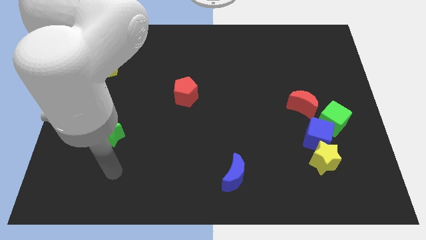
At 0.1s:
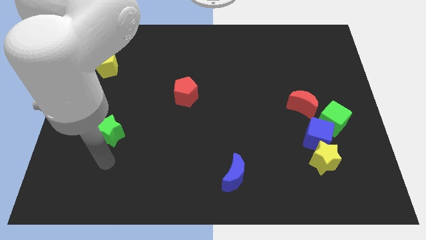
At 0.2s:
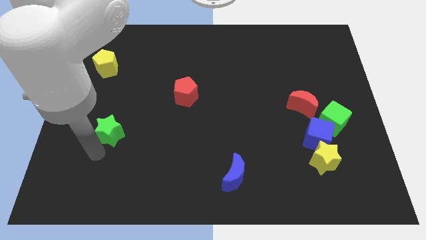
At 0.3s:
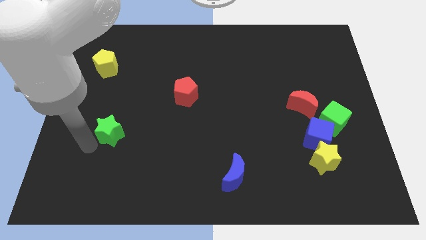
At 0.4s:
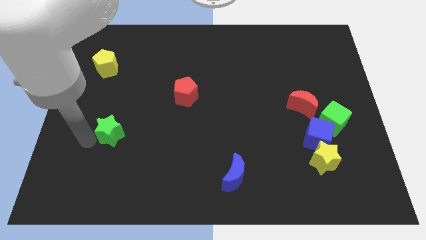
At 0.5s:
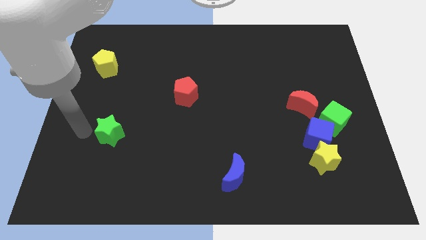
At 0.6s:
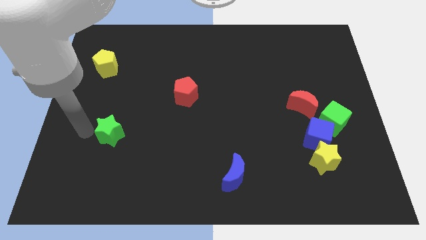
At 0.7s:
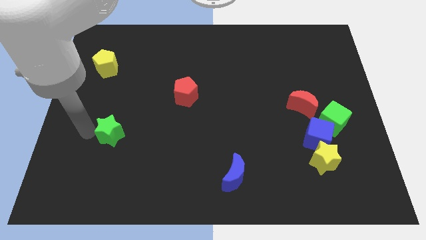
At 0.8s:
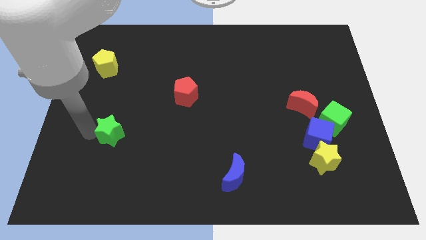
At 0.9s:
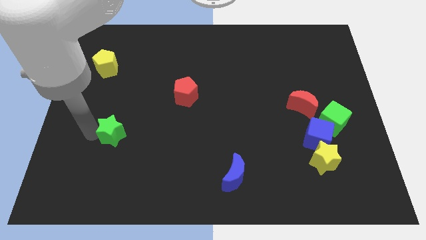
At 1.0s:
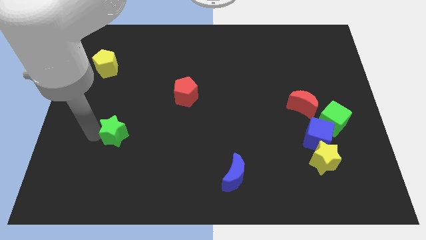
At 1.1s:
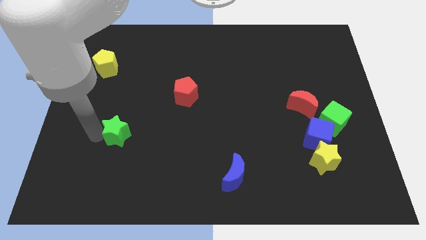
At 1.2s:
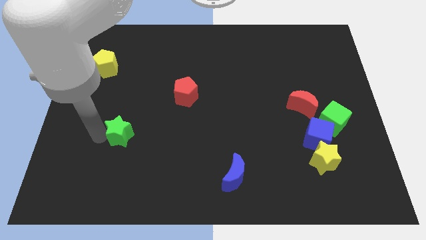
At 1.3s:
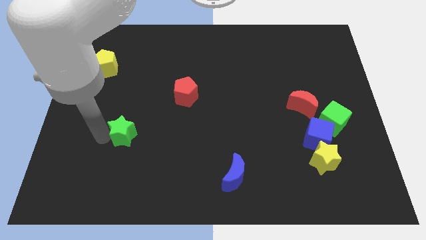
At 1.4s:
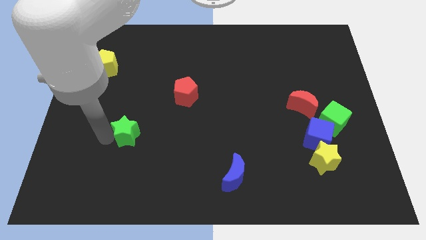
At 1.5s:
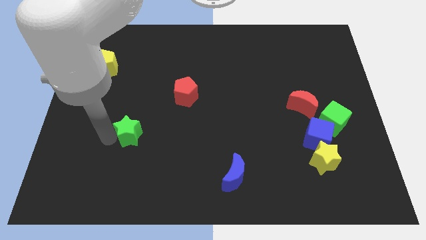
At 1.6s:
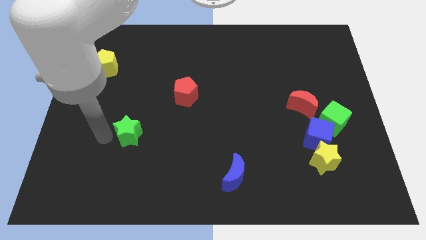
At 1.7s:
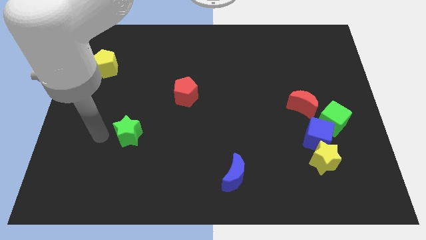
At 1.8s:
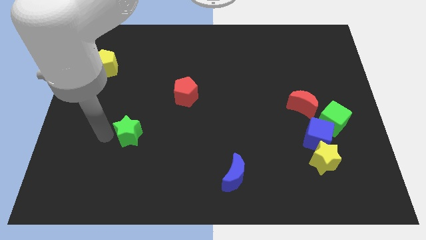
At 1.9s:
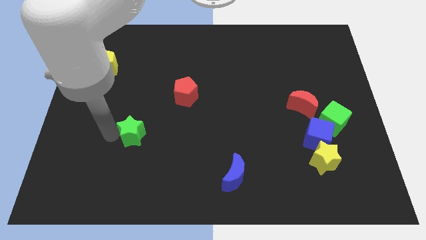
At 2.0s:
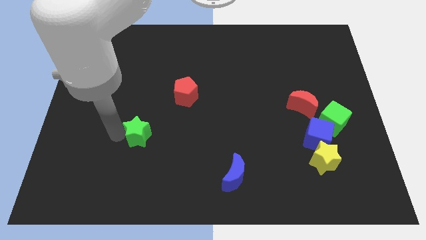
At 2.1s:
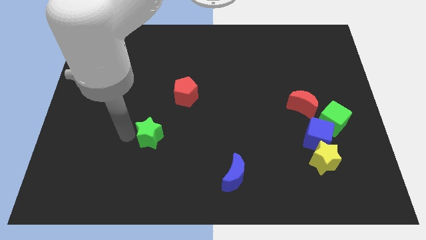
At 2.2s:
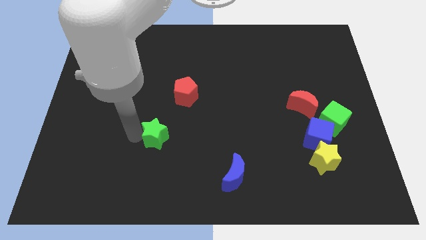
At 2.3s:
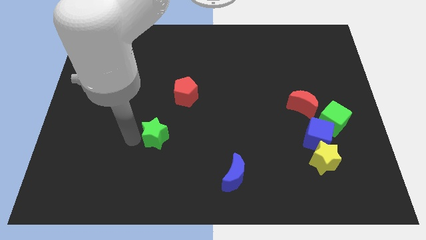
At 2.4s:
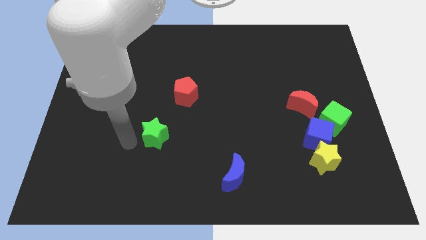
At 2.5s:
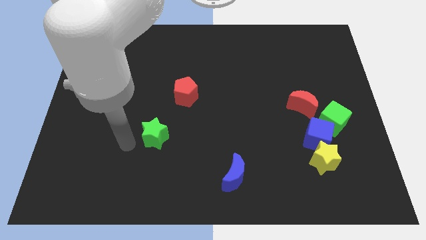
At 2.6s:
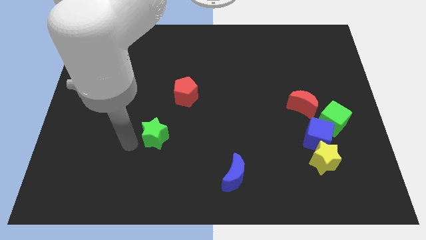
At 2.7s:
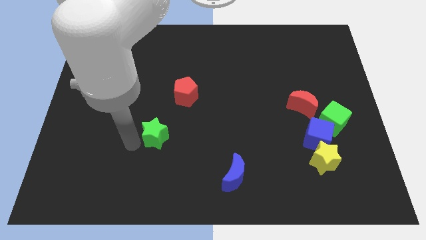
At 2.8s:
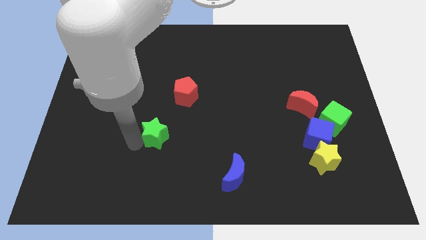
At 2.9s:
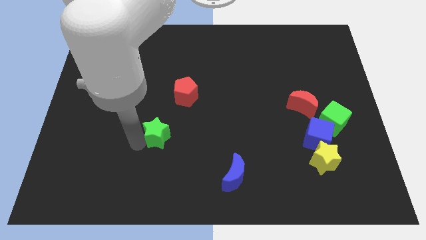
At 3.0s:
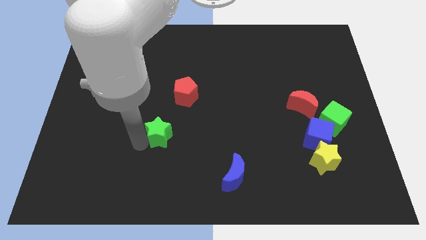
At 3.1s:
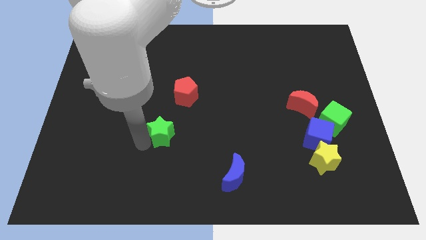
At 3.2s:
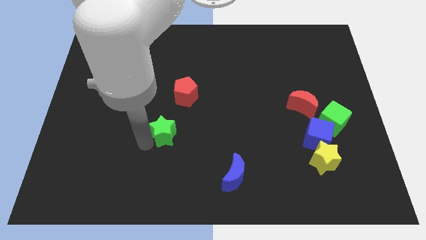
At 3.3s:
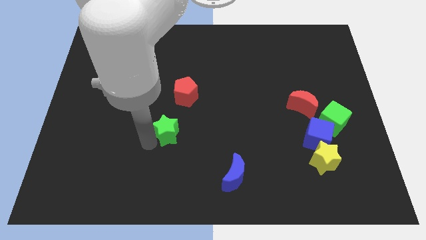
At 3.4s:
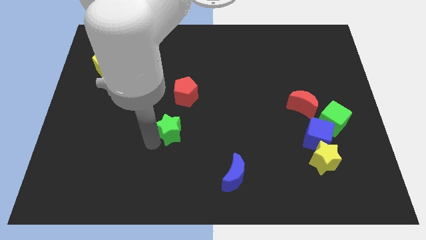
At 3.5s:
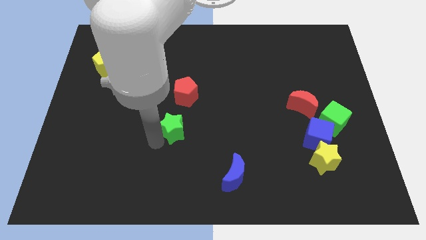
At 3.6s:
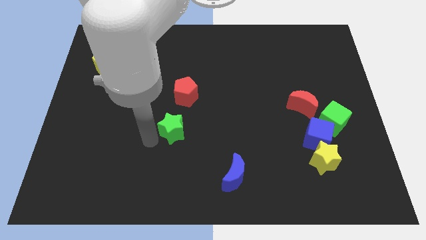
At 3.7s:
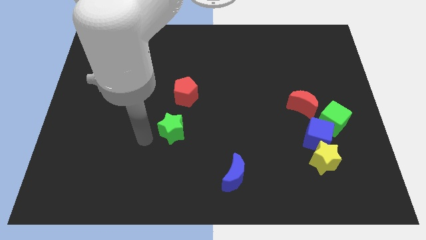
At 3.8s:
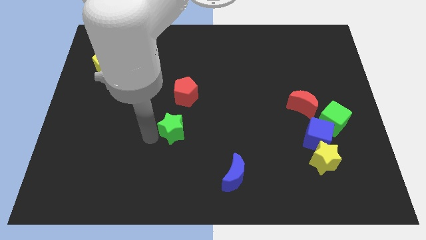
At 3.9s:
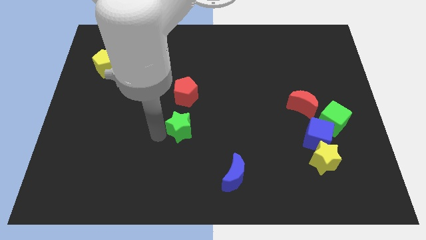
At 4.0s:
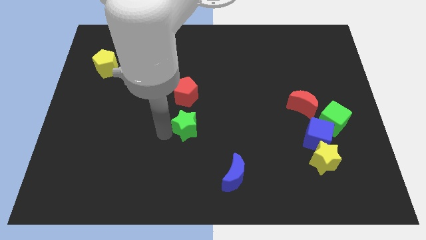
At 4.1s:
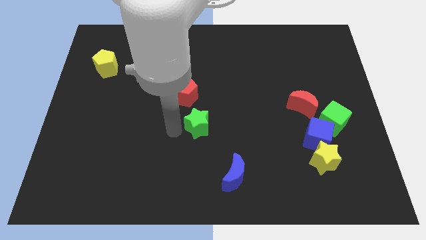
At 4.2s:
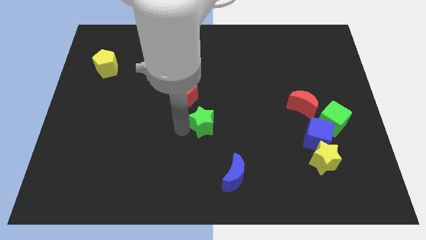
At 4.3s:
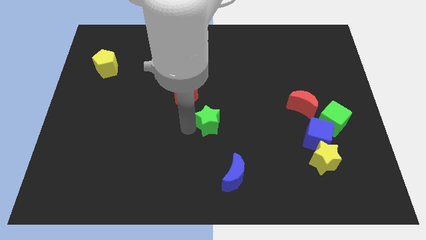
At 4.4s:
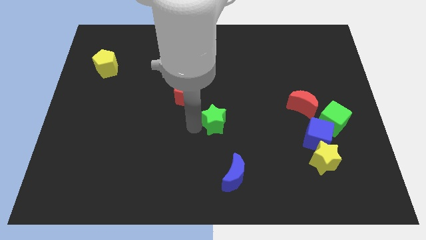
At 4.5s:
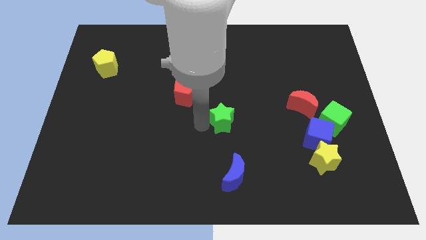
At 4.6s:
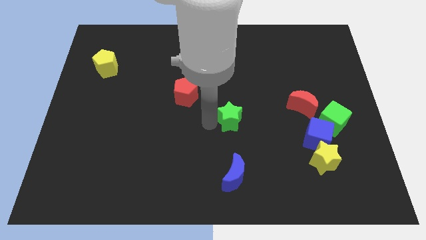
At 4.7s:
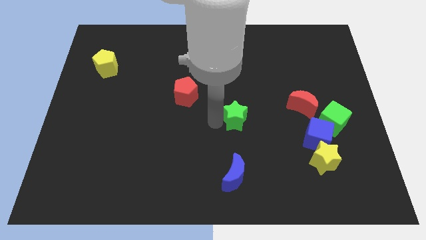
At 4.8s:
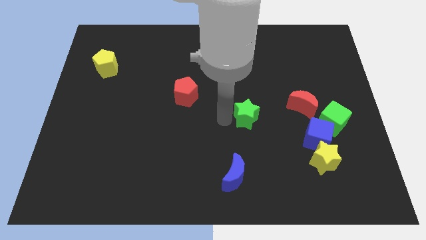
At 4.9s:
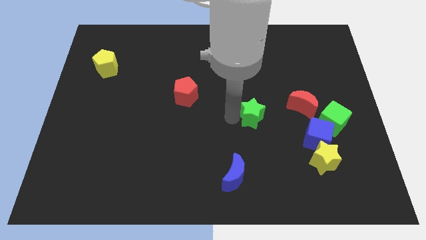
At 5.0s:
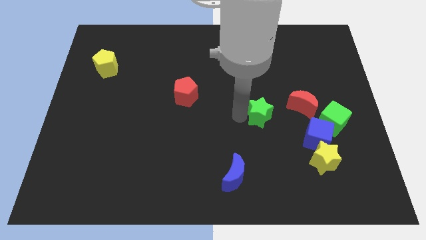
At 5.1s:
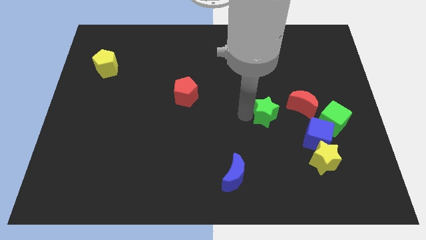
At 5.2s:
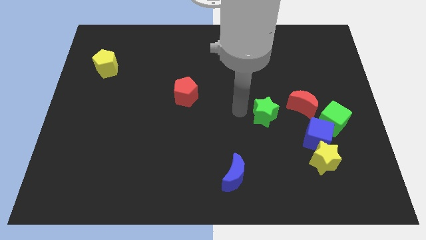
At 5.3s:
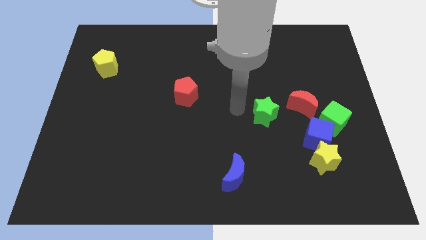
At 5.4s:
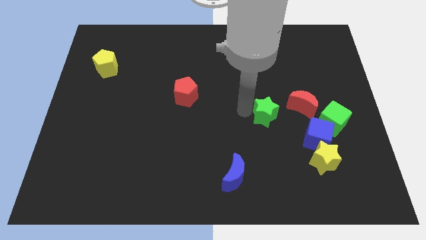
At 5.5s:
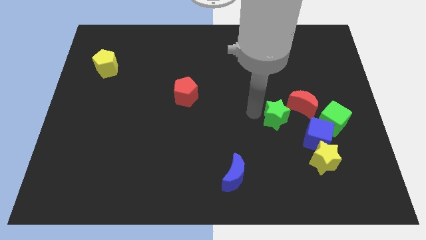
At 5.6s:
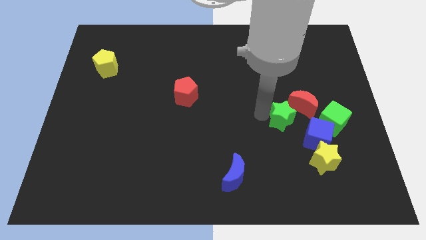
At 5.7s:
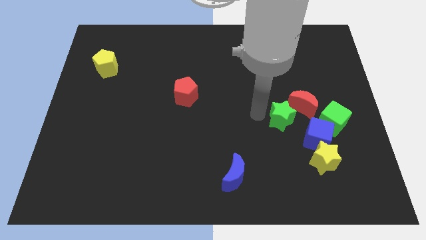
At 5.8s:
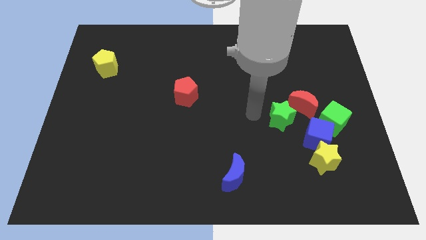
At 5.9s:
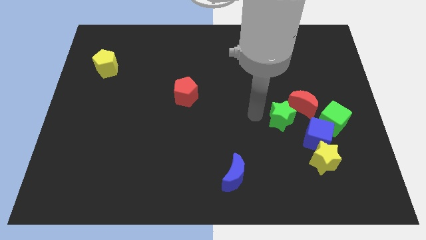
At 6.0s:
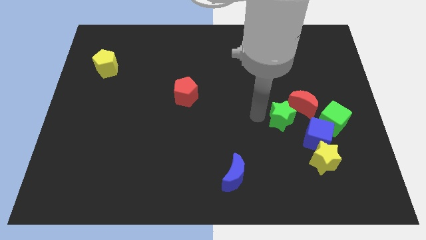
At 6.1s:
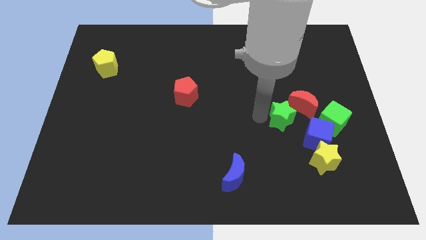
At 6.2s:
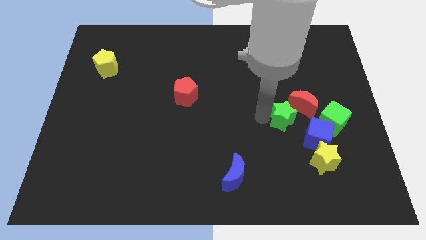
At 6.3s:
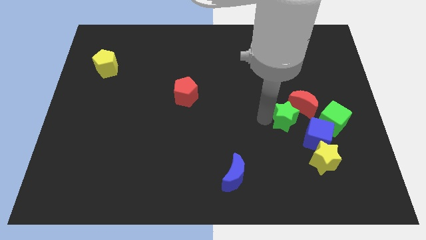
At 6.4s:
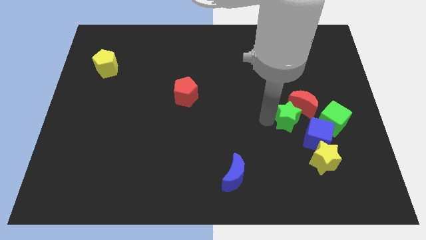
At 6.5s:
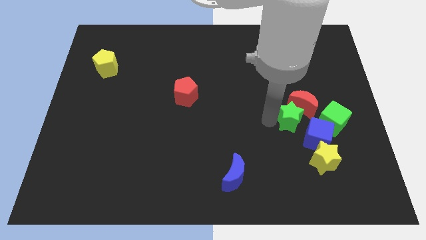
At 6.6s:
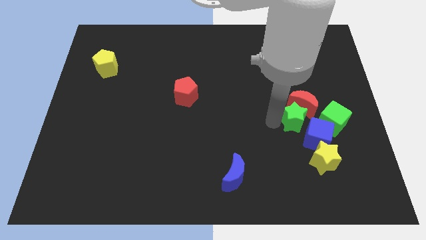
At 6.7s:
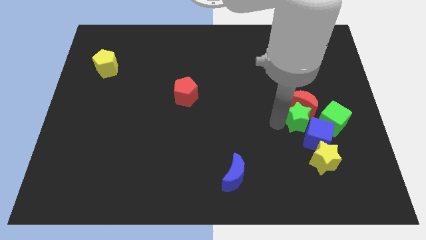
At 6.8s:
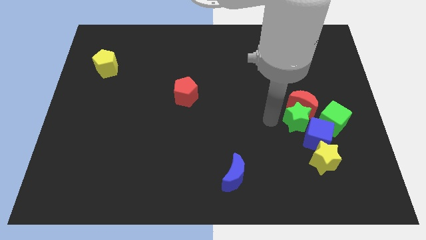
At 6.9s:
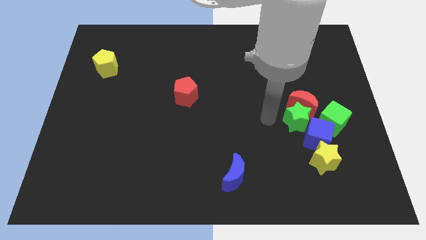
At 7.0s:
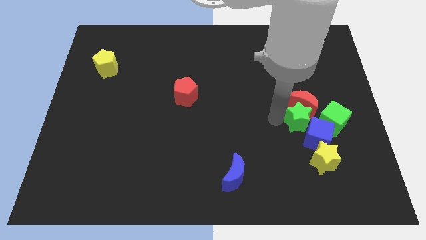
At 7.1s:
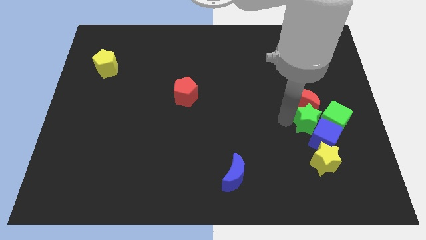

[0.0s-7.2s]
put the green star to the green cube
